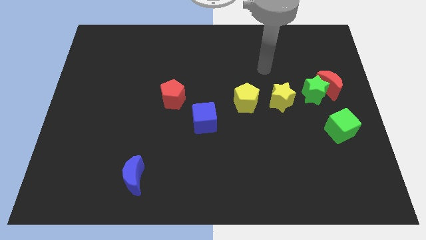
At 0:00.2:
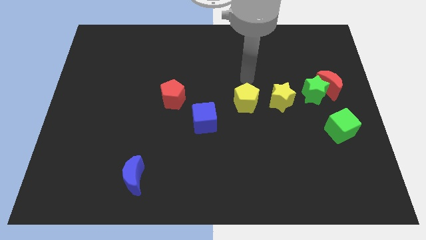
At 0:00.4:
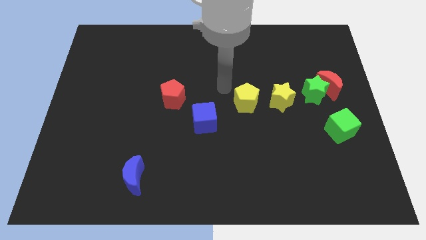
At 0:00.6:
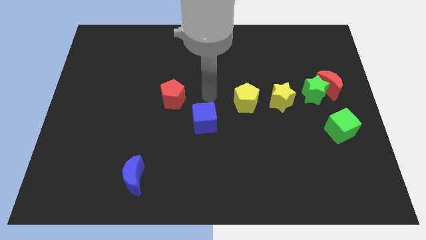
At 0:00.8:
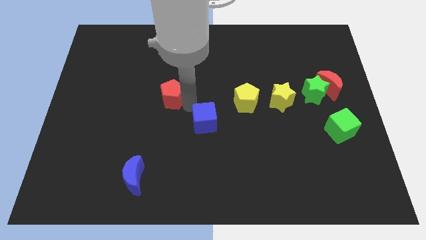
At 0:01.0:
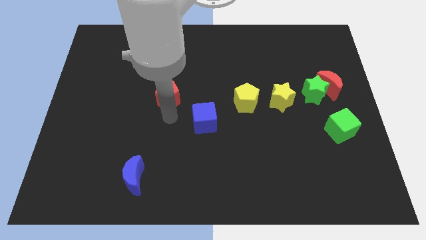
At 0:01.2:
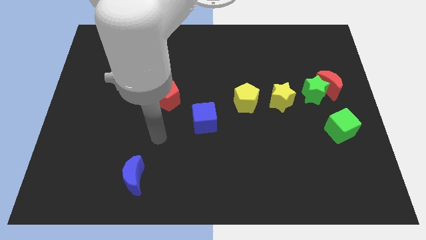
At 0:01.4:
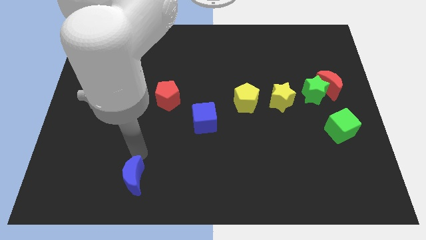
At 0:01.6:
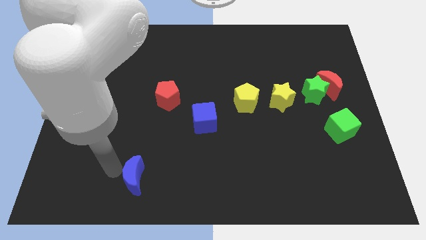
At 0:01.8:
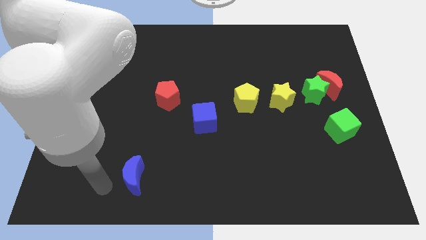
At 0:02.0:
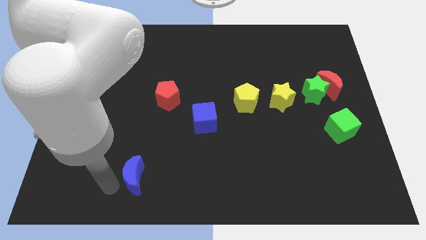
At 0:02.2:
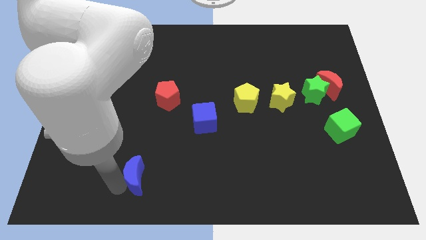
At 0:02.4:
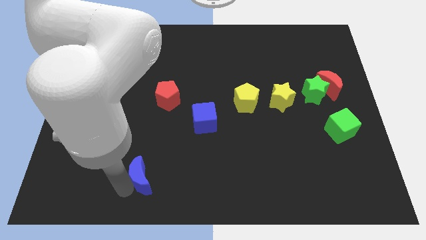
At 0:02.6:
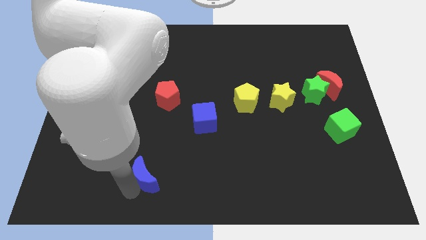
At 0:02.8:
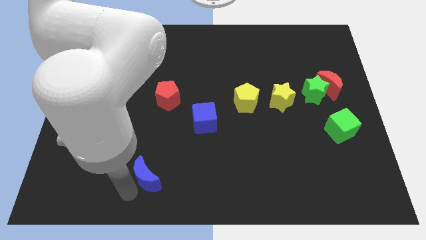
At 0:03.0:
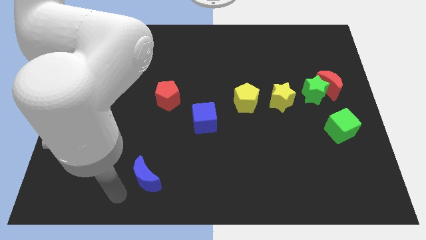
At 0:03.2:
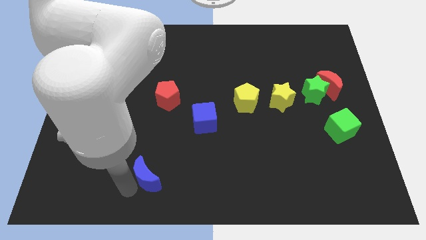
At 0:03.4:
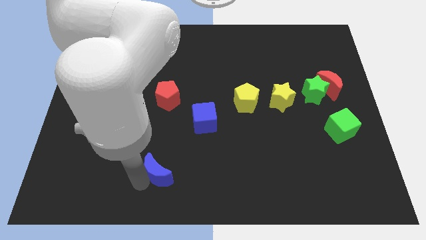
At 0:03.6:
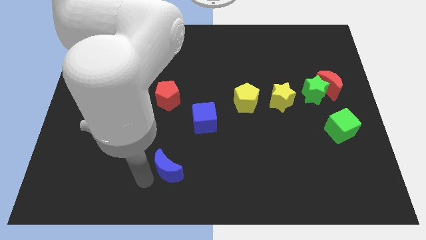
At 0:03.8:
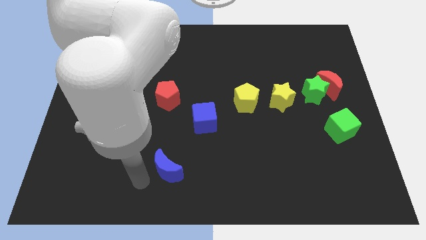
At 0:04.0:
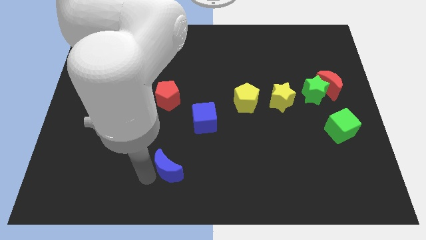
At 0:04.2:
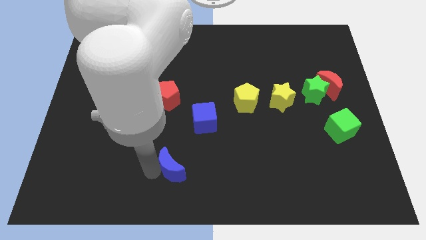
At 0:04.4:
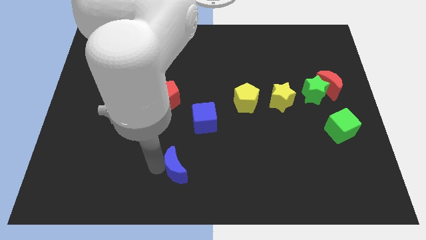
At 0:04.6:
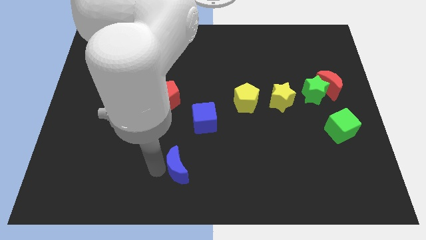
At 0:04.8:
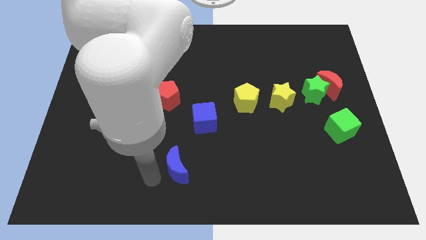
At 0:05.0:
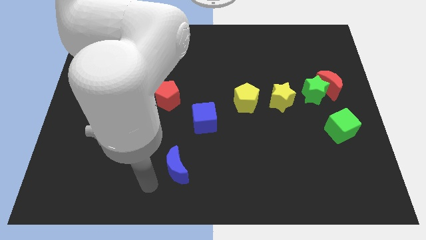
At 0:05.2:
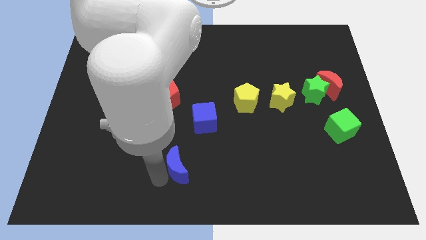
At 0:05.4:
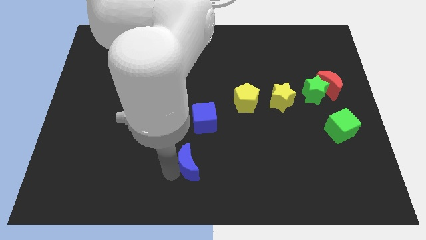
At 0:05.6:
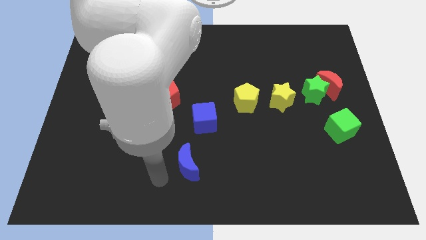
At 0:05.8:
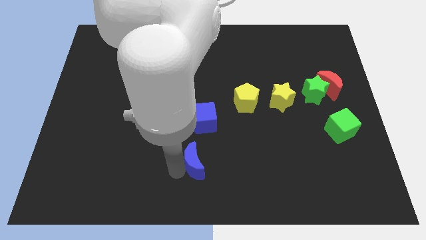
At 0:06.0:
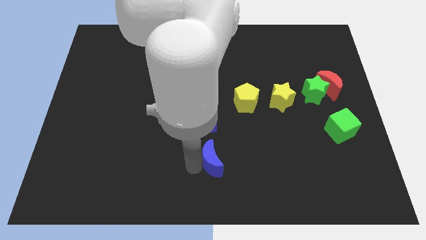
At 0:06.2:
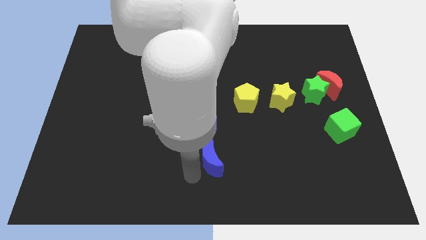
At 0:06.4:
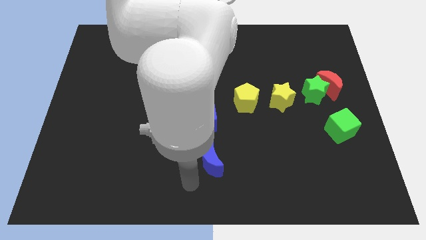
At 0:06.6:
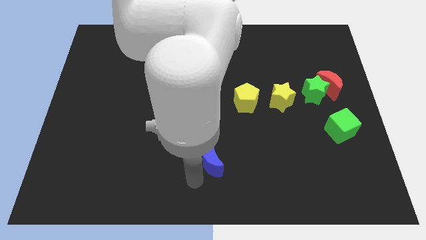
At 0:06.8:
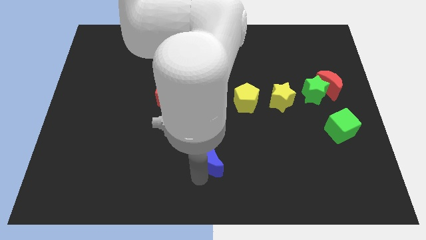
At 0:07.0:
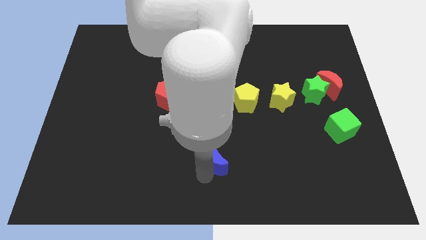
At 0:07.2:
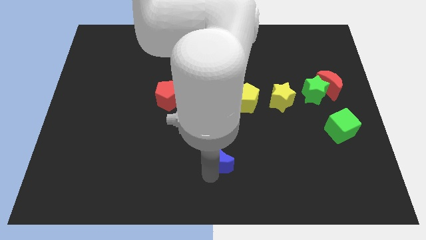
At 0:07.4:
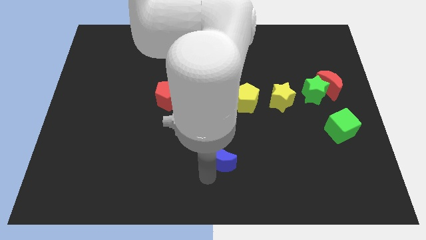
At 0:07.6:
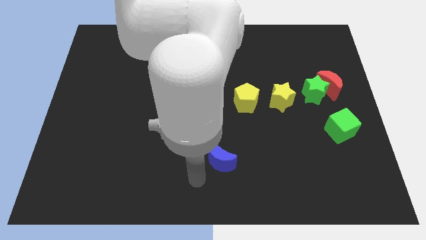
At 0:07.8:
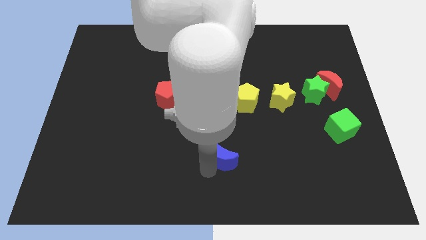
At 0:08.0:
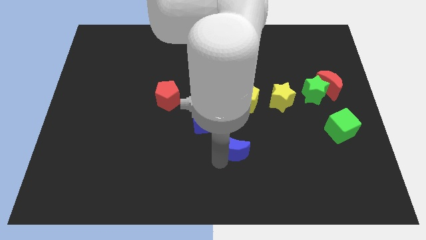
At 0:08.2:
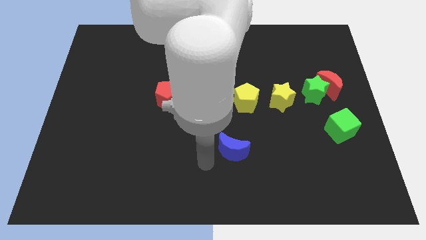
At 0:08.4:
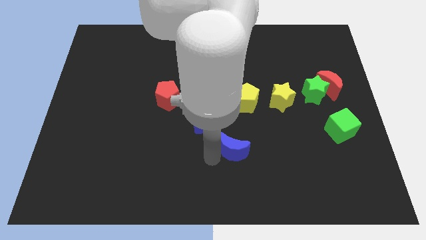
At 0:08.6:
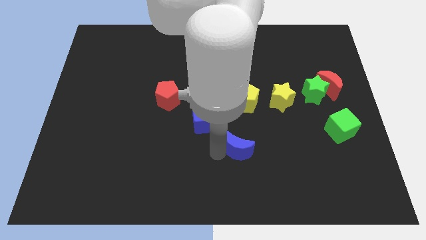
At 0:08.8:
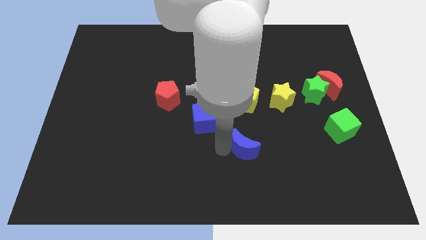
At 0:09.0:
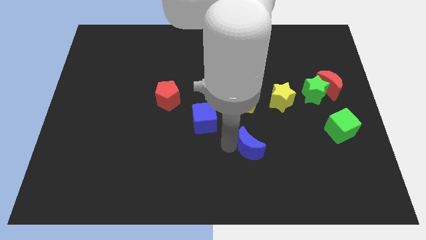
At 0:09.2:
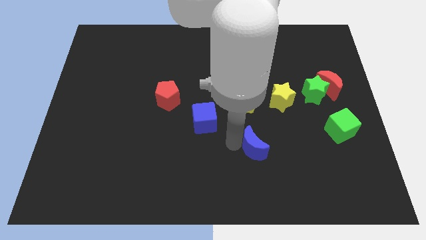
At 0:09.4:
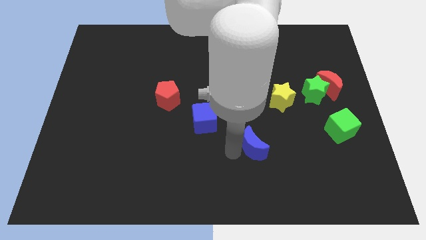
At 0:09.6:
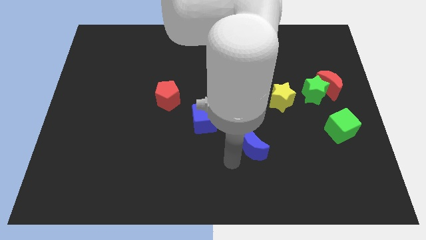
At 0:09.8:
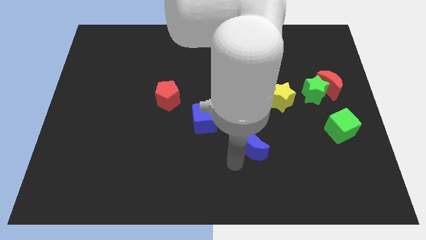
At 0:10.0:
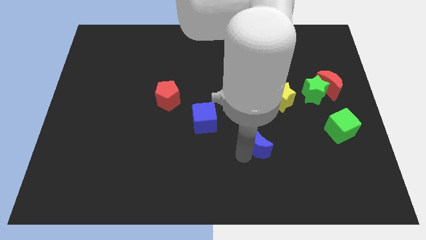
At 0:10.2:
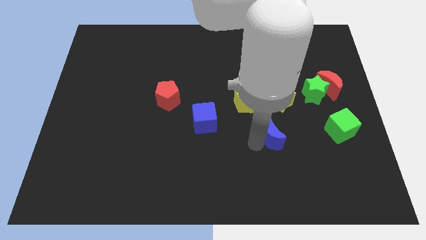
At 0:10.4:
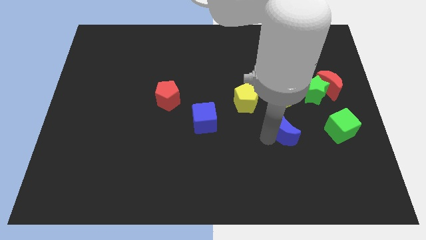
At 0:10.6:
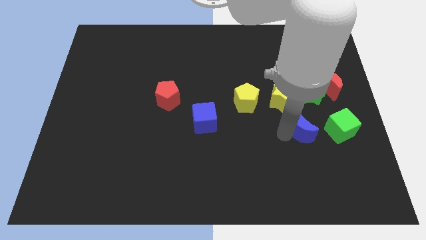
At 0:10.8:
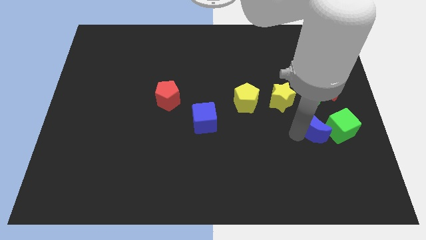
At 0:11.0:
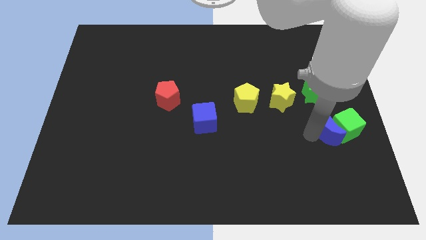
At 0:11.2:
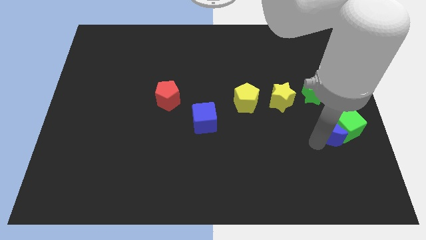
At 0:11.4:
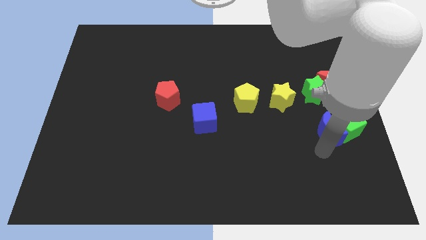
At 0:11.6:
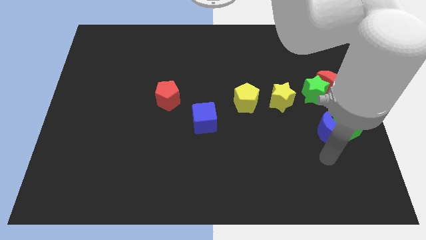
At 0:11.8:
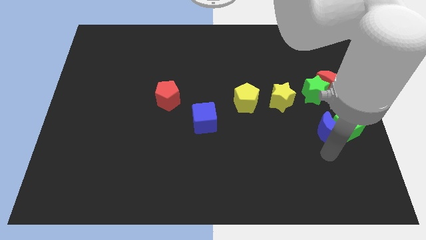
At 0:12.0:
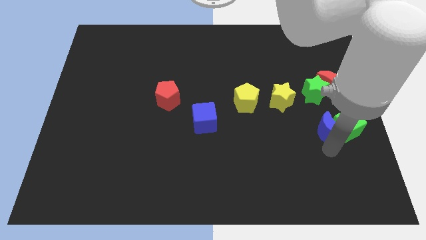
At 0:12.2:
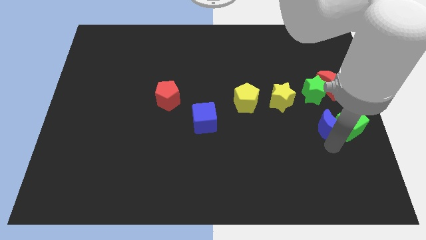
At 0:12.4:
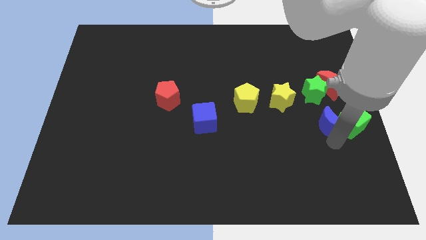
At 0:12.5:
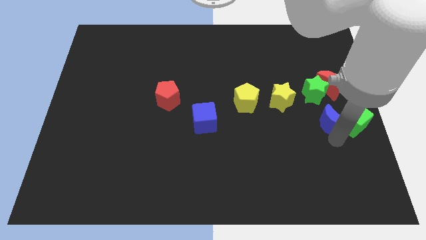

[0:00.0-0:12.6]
push the blue moon to the right side of the board
